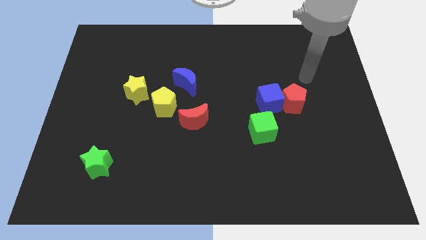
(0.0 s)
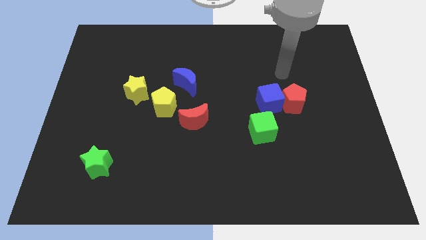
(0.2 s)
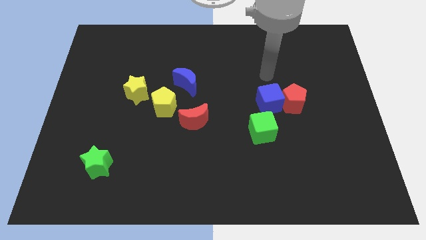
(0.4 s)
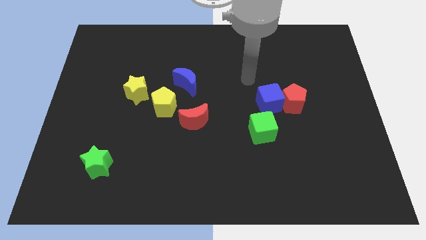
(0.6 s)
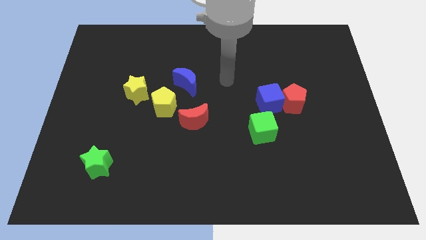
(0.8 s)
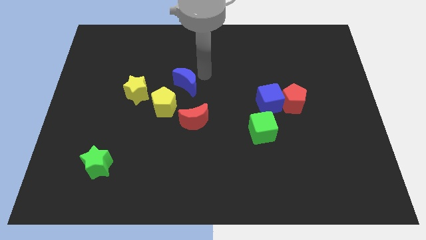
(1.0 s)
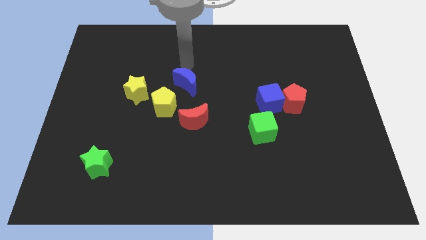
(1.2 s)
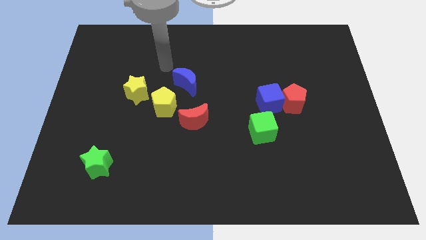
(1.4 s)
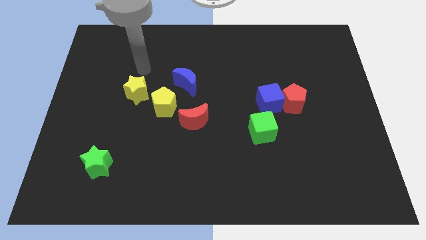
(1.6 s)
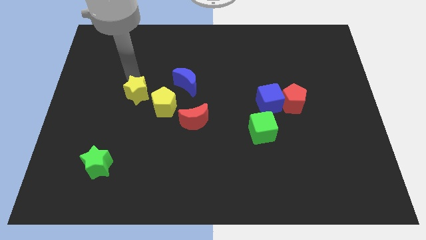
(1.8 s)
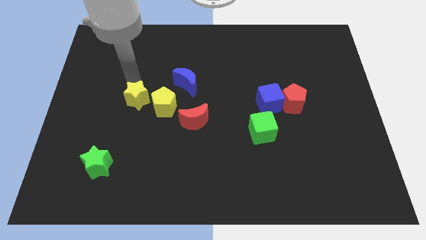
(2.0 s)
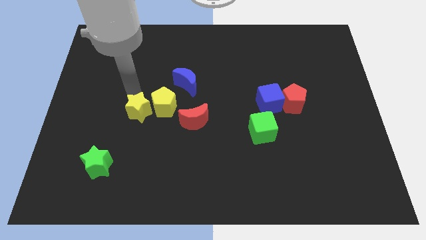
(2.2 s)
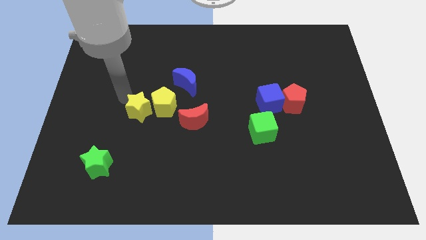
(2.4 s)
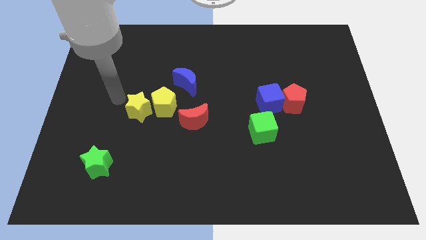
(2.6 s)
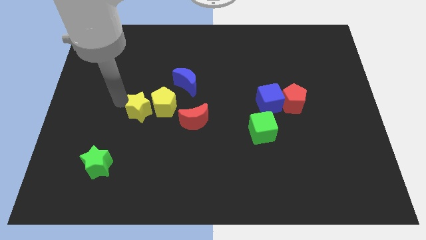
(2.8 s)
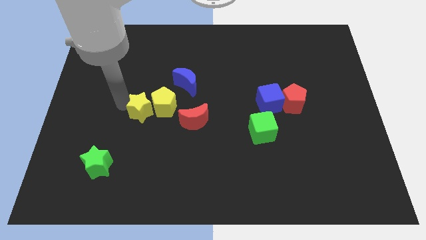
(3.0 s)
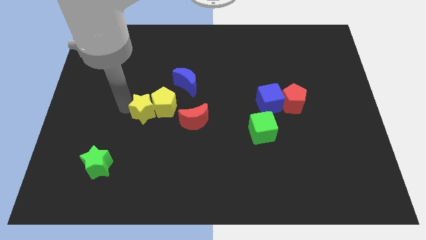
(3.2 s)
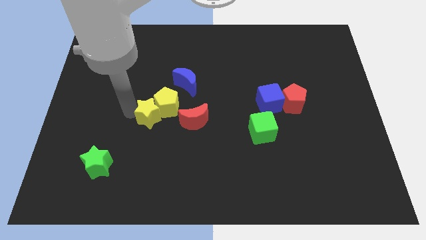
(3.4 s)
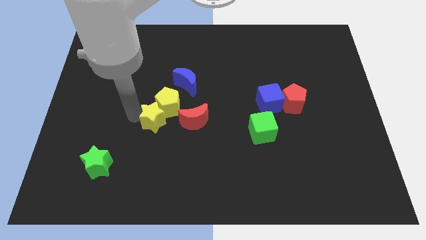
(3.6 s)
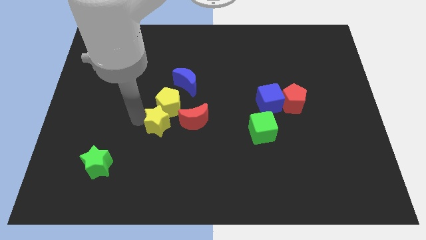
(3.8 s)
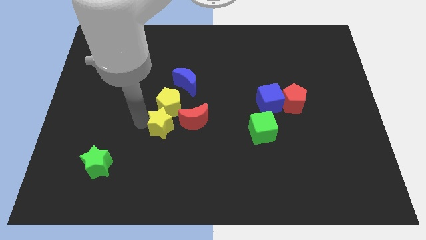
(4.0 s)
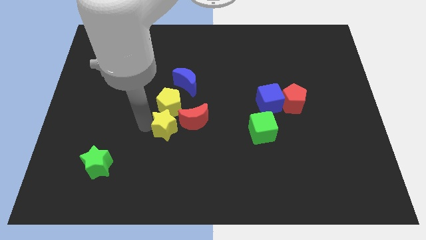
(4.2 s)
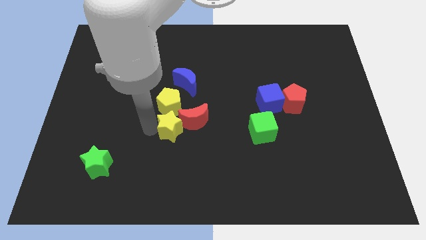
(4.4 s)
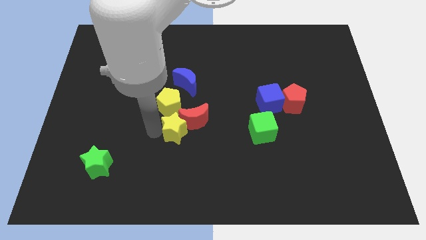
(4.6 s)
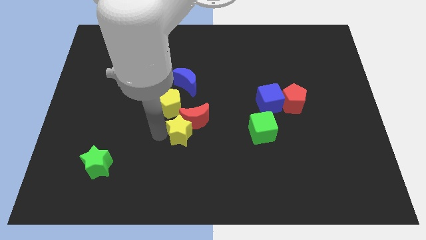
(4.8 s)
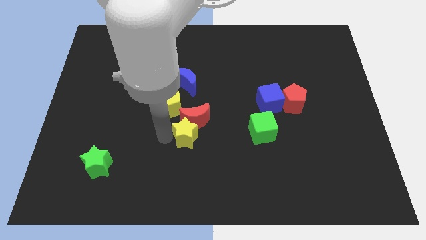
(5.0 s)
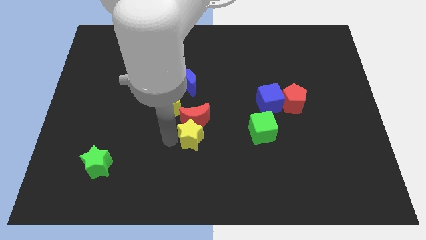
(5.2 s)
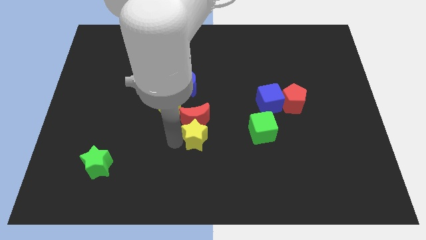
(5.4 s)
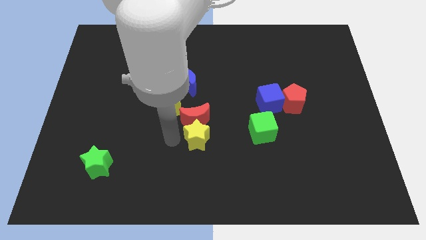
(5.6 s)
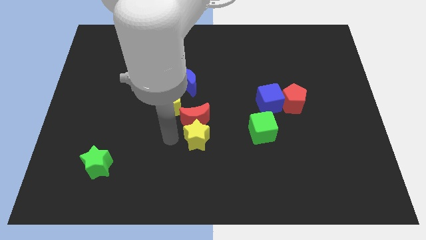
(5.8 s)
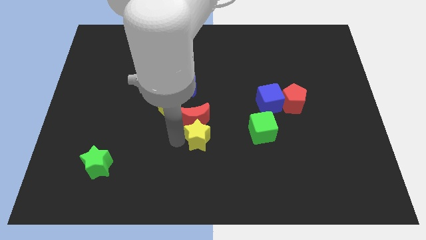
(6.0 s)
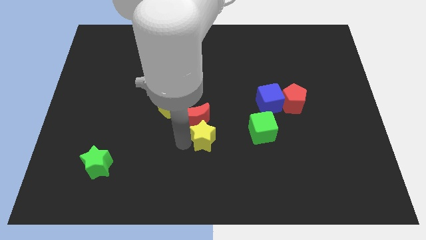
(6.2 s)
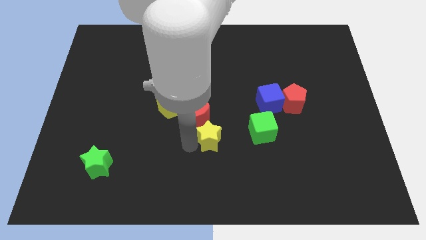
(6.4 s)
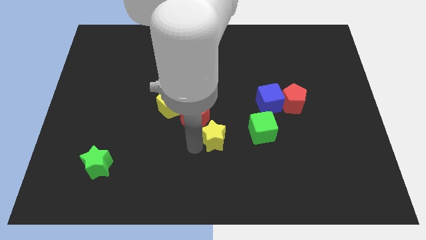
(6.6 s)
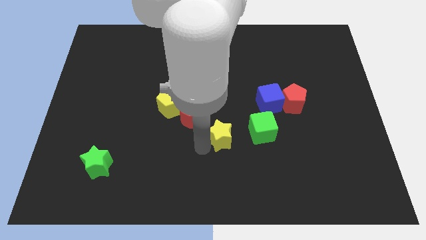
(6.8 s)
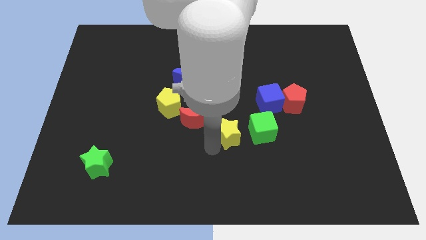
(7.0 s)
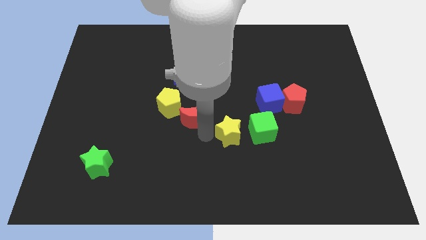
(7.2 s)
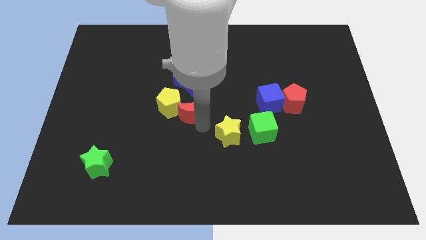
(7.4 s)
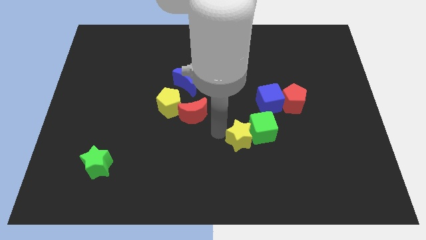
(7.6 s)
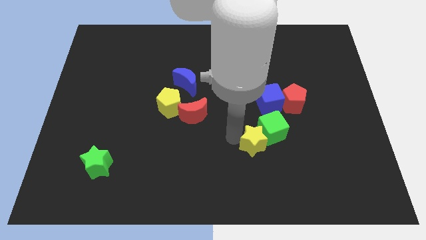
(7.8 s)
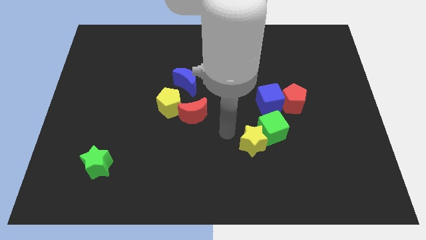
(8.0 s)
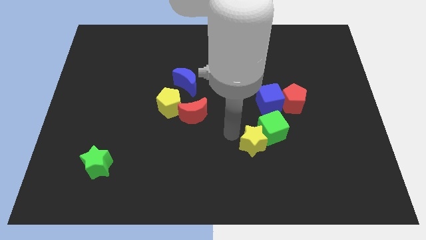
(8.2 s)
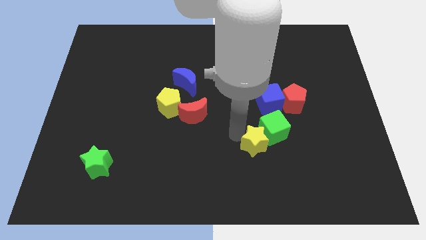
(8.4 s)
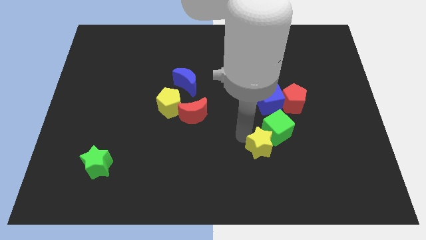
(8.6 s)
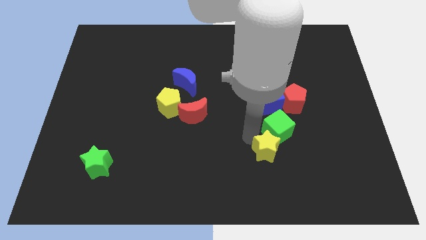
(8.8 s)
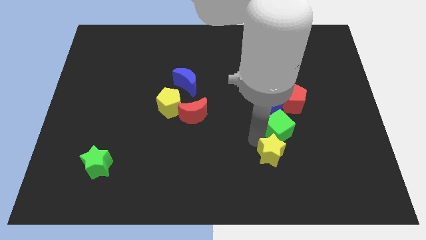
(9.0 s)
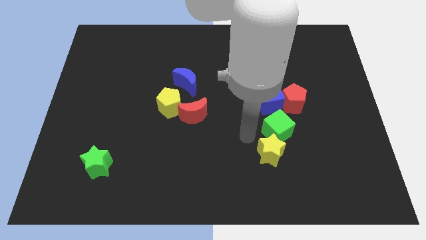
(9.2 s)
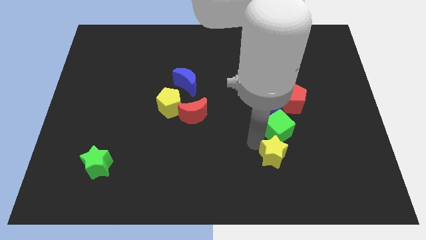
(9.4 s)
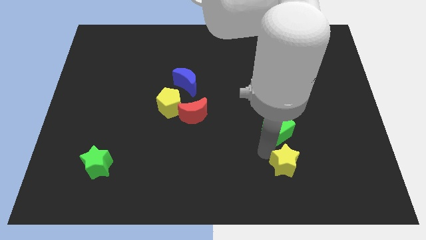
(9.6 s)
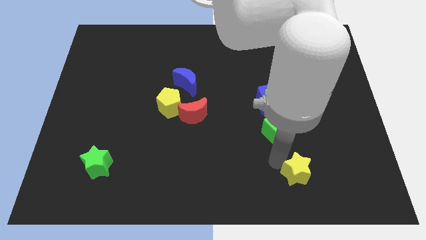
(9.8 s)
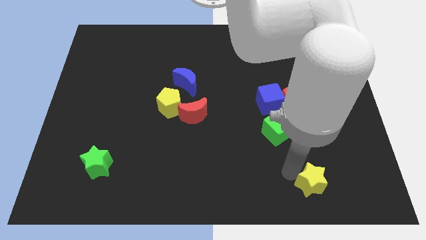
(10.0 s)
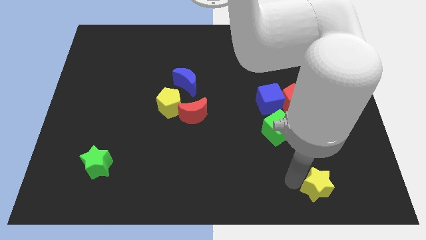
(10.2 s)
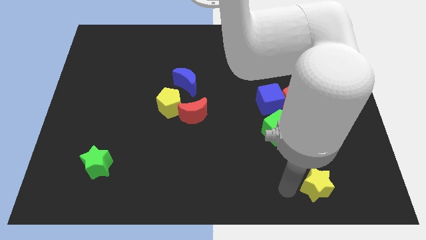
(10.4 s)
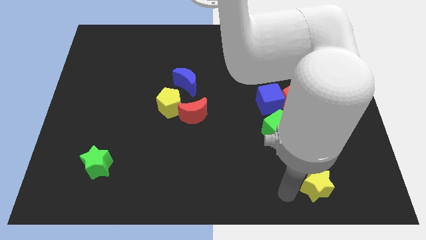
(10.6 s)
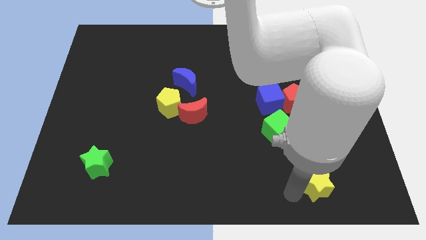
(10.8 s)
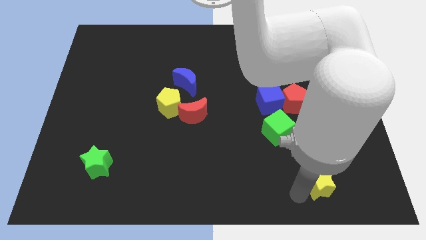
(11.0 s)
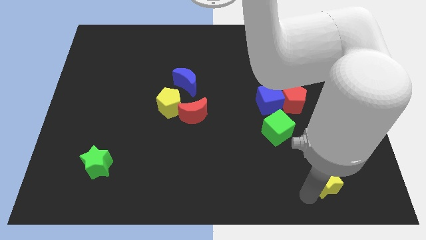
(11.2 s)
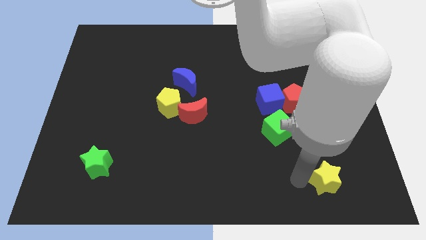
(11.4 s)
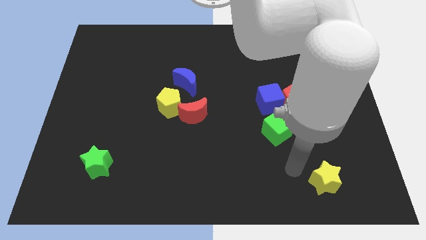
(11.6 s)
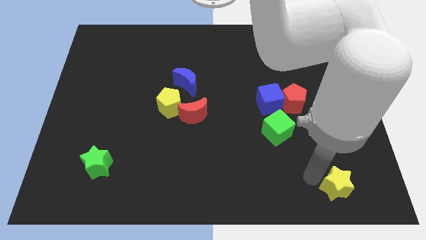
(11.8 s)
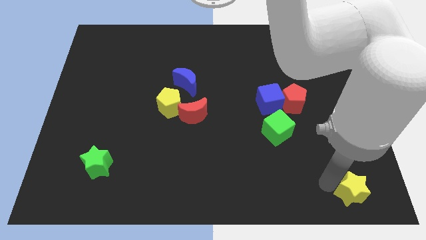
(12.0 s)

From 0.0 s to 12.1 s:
slide the yellow star to the bottom right

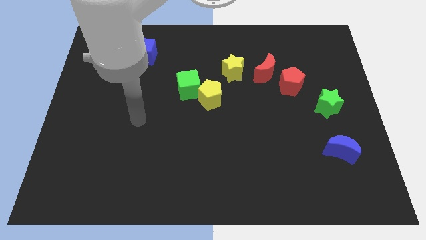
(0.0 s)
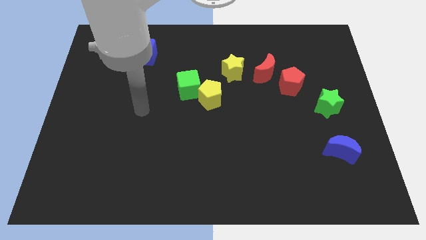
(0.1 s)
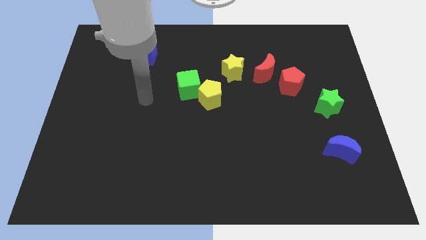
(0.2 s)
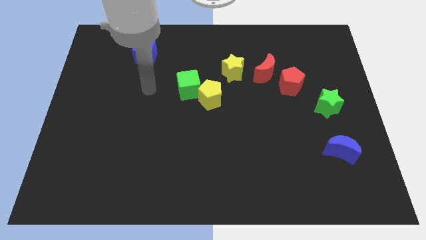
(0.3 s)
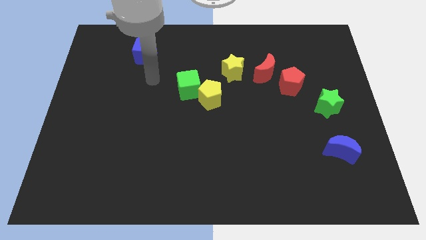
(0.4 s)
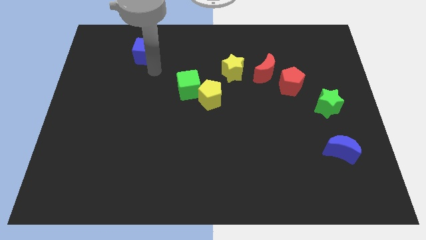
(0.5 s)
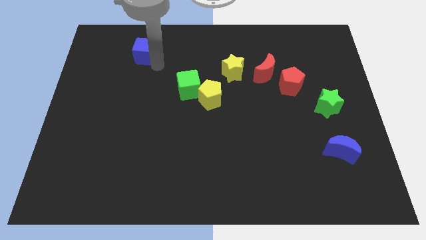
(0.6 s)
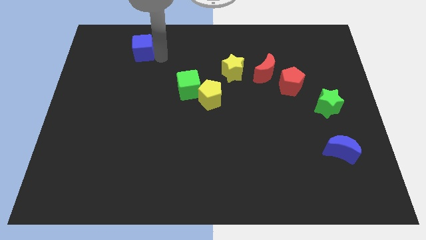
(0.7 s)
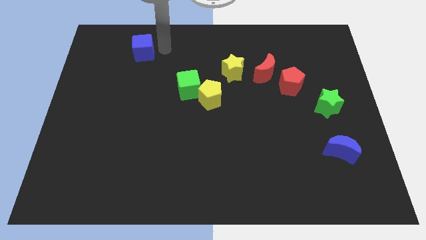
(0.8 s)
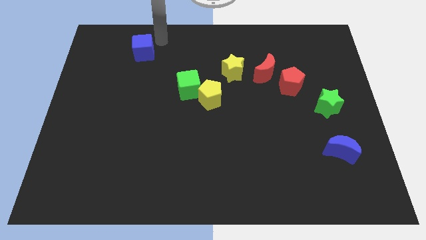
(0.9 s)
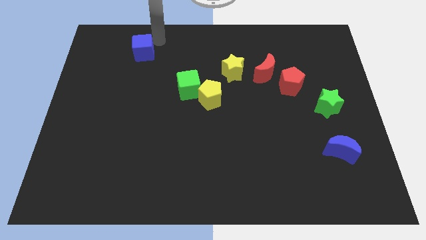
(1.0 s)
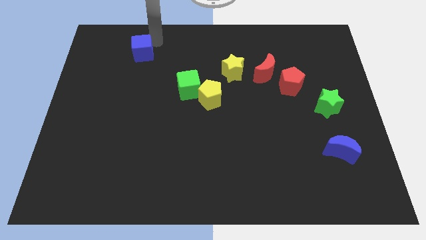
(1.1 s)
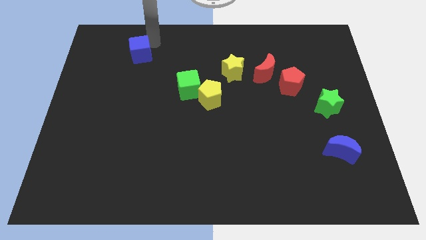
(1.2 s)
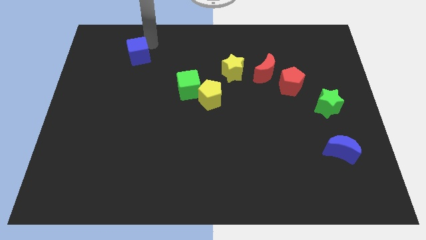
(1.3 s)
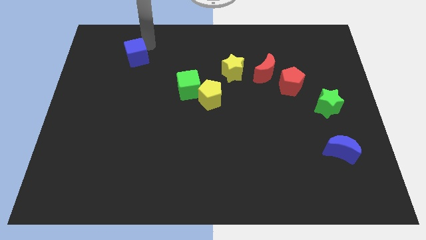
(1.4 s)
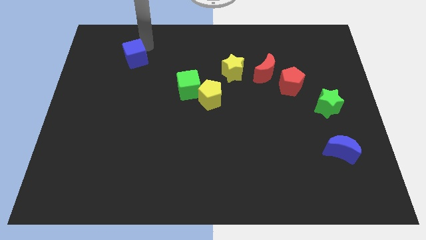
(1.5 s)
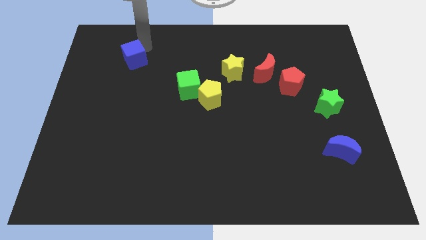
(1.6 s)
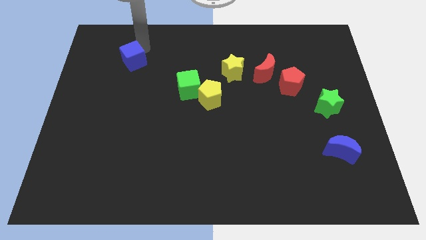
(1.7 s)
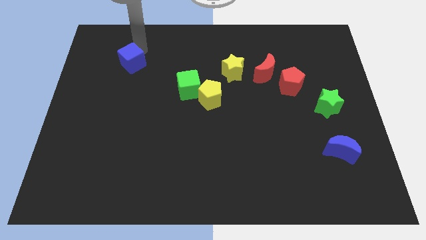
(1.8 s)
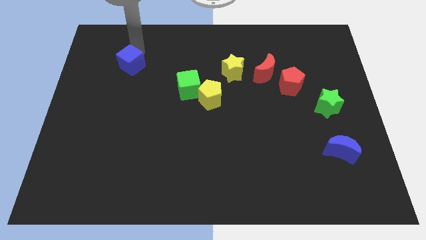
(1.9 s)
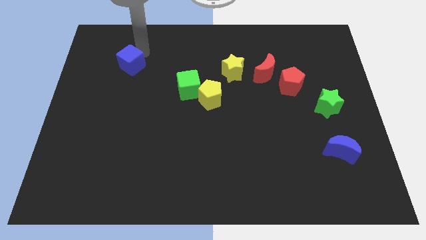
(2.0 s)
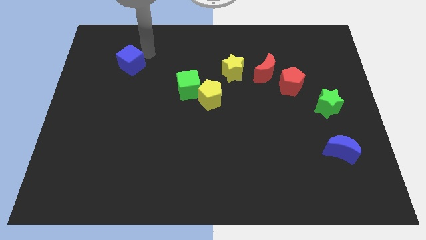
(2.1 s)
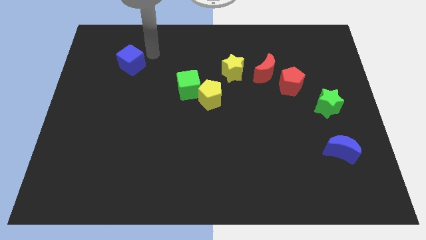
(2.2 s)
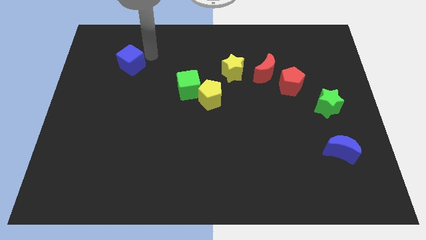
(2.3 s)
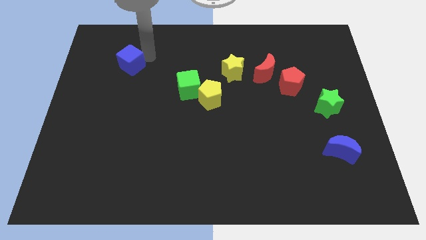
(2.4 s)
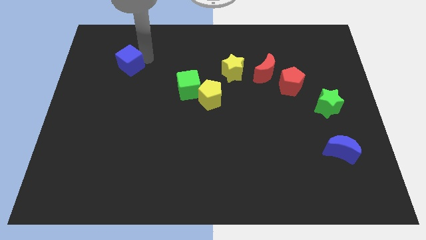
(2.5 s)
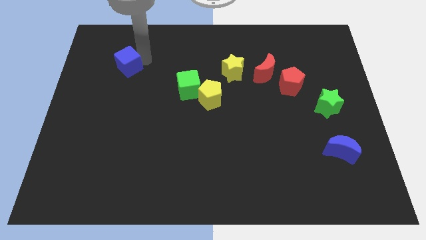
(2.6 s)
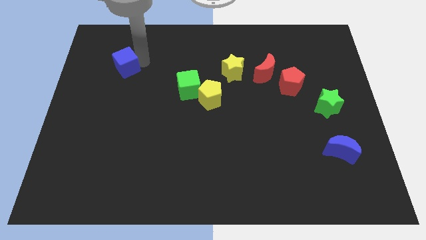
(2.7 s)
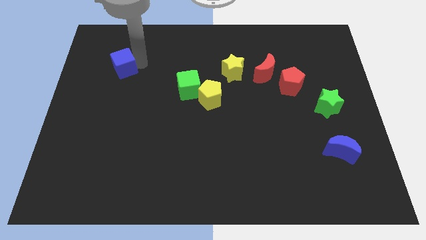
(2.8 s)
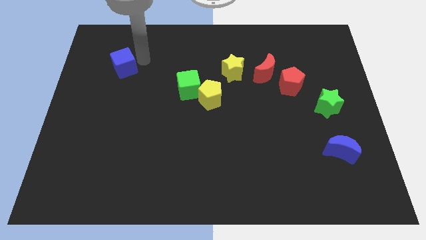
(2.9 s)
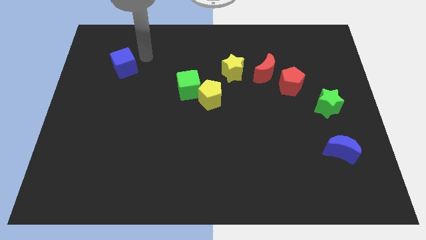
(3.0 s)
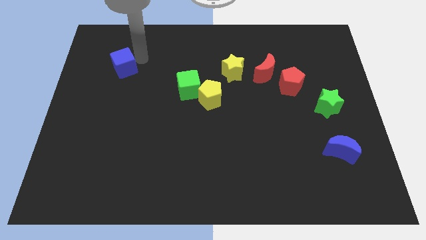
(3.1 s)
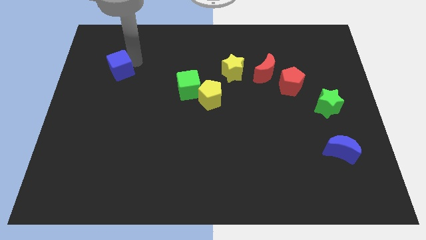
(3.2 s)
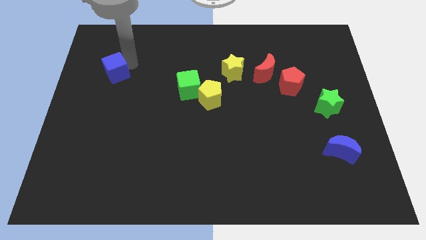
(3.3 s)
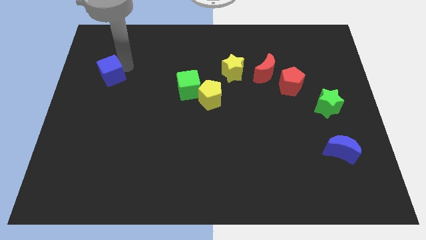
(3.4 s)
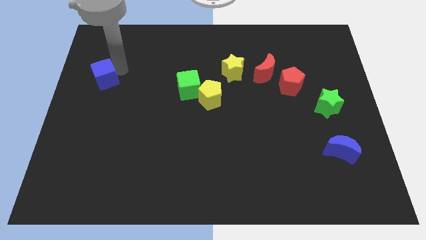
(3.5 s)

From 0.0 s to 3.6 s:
put the blue cube to the left side of the board
